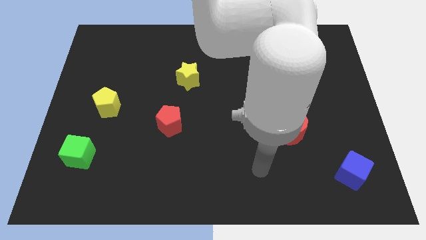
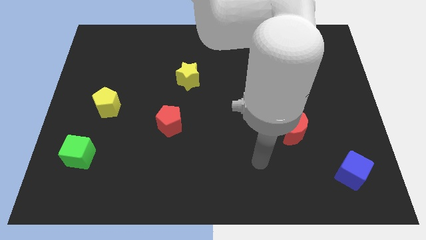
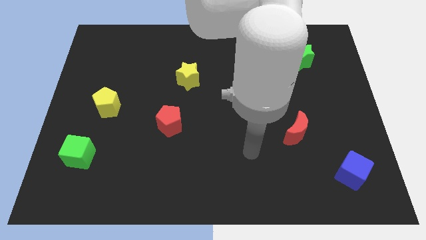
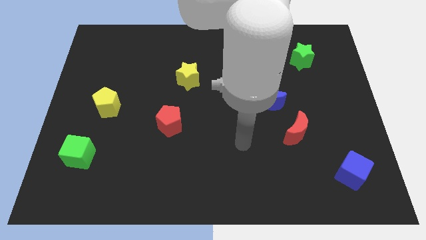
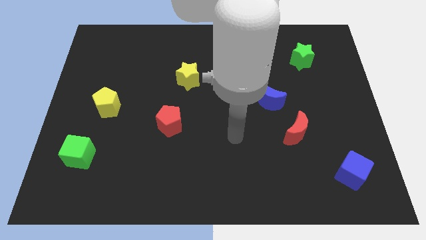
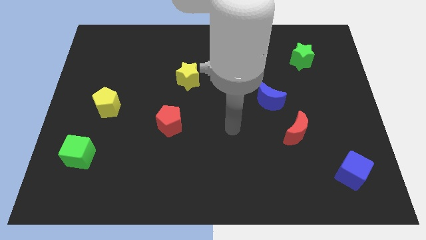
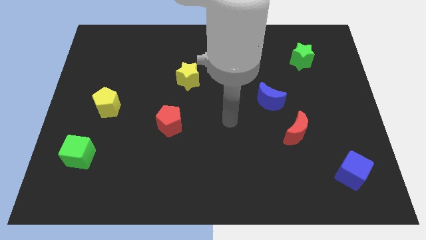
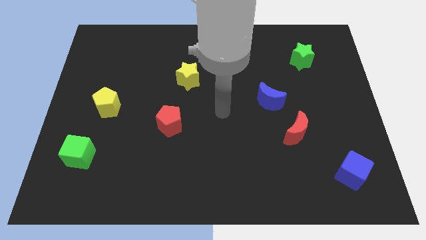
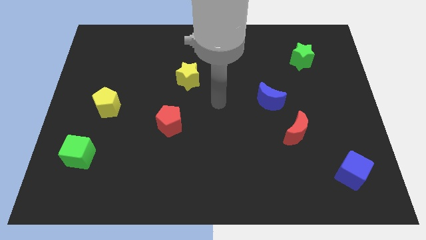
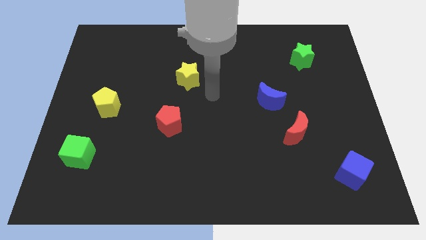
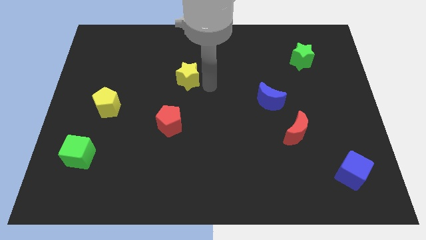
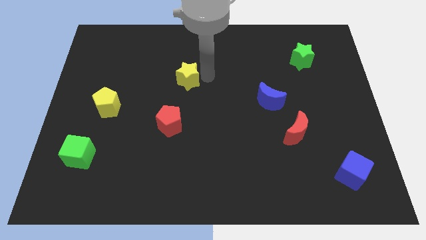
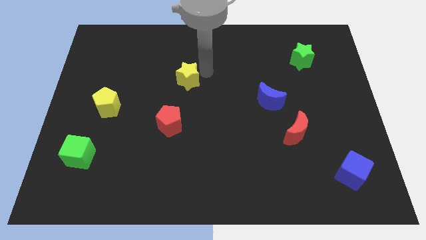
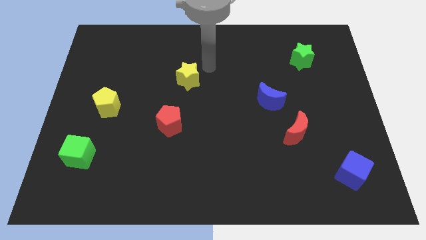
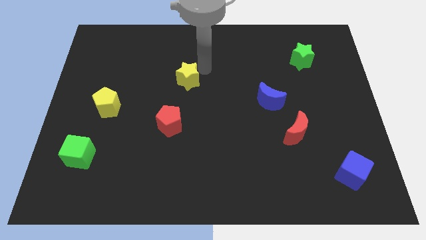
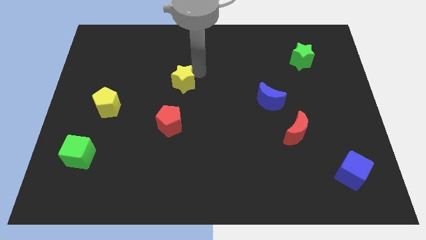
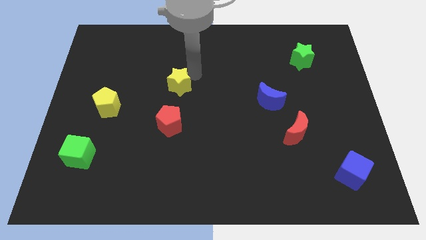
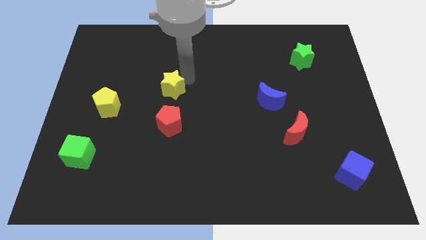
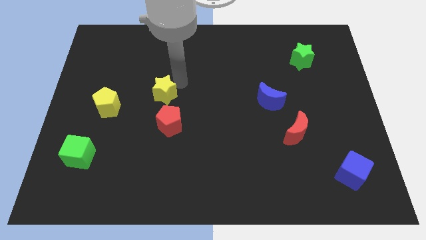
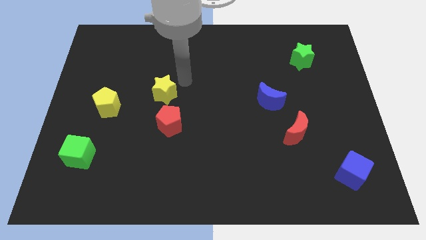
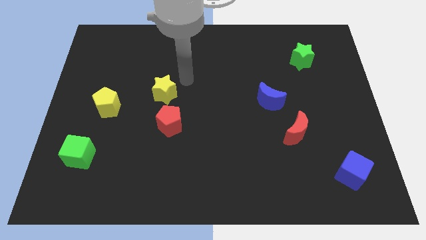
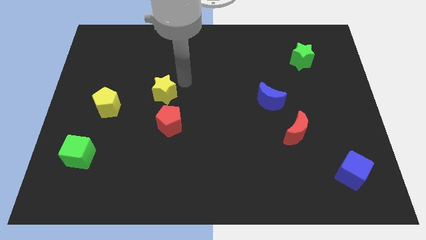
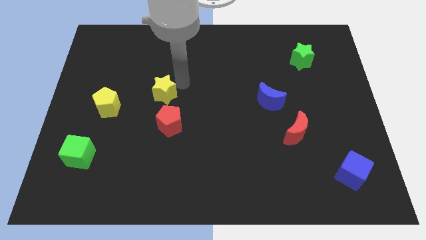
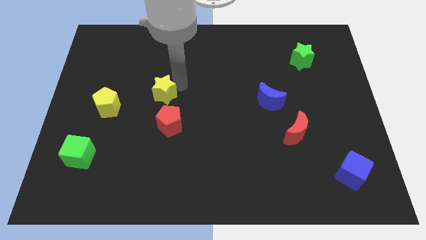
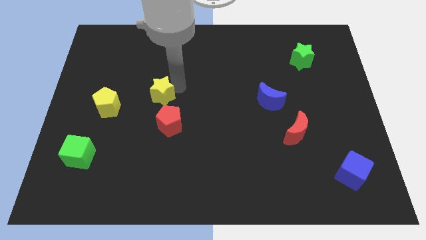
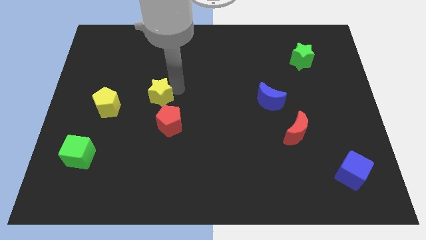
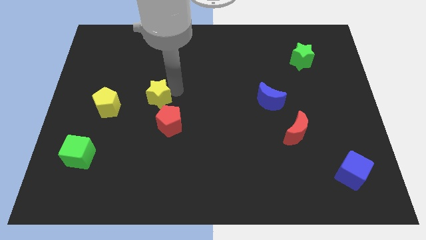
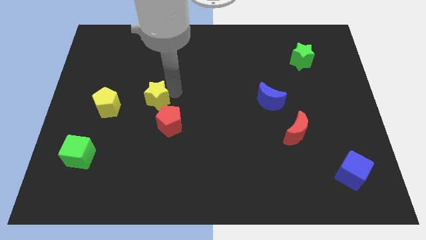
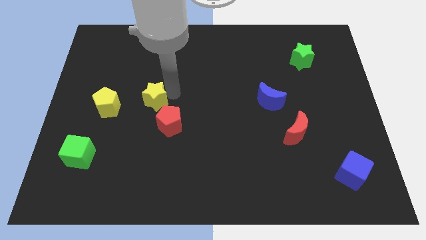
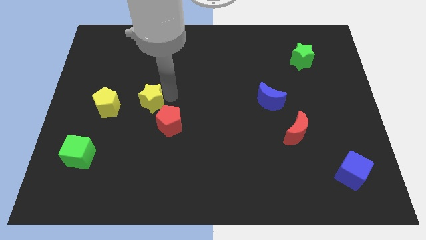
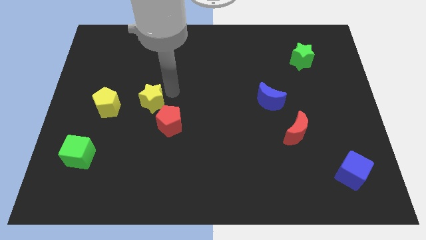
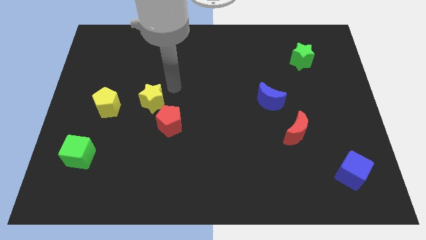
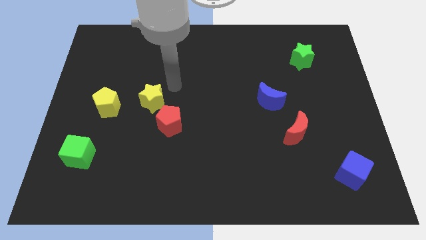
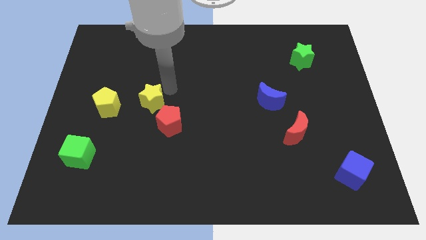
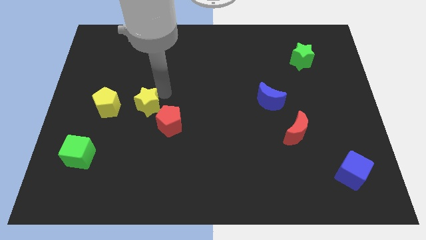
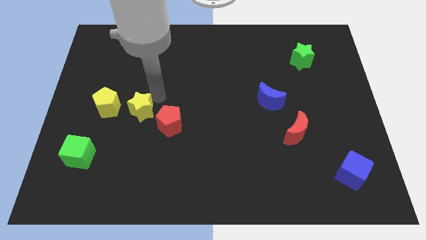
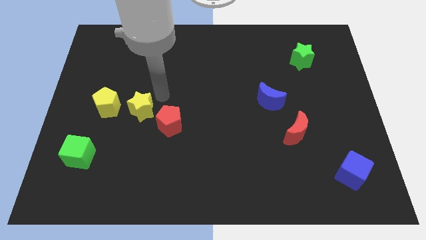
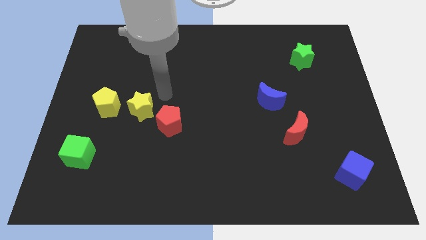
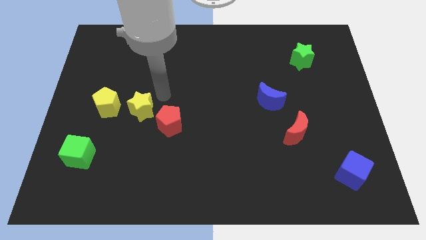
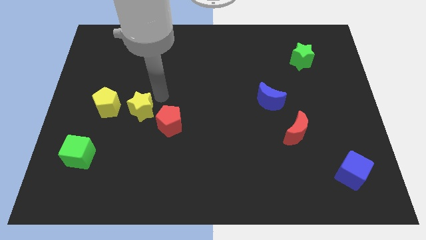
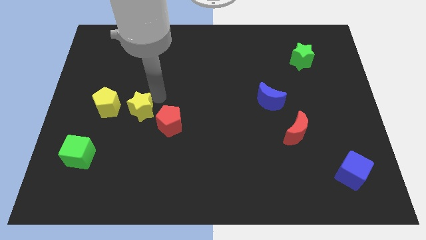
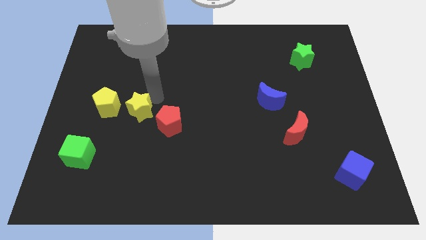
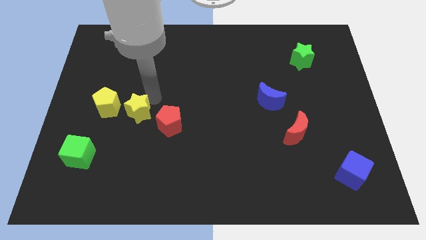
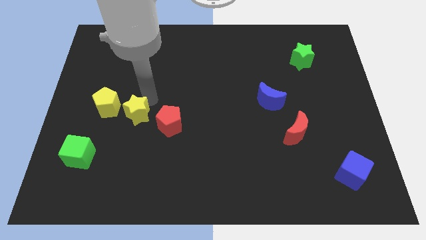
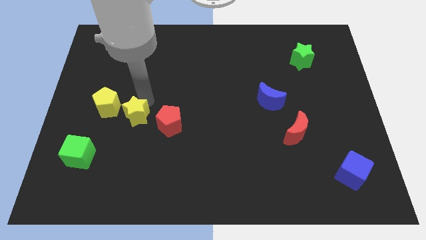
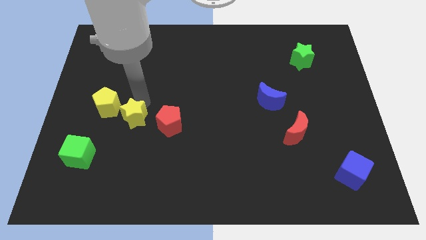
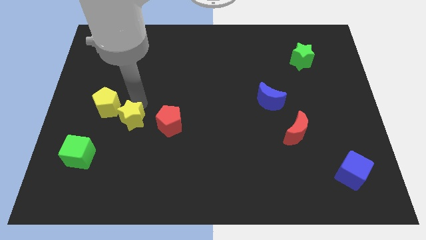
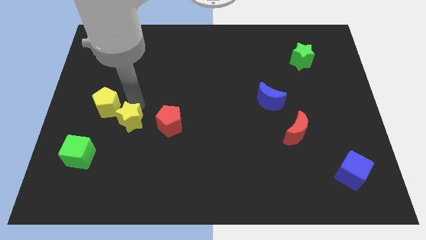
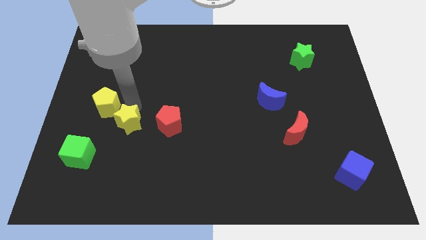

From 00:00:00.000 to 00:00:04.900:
put the yellow star diagonally up and to the right of the green cube

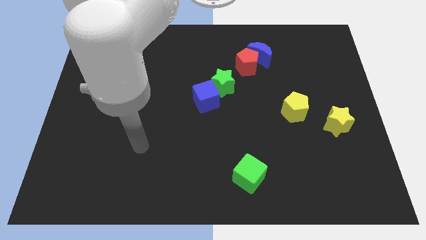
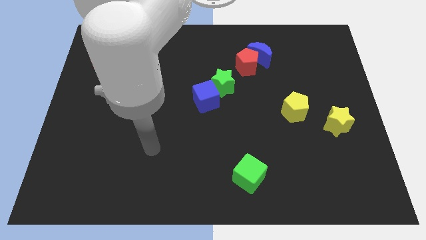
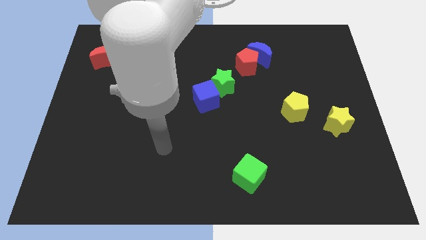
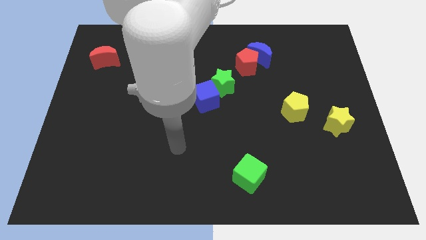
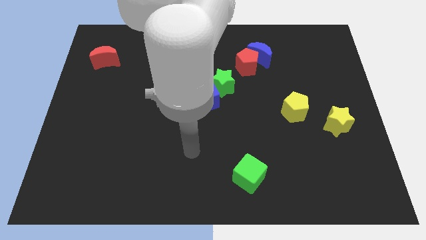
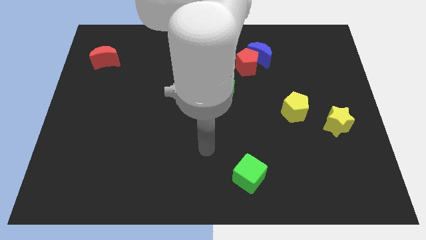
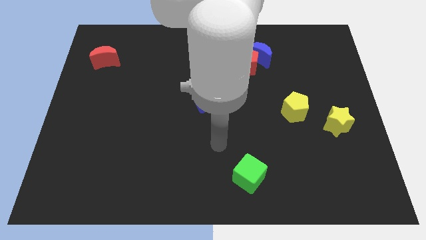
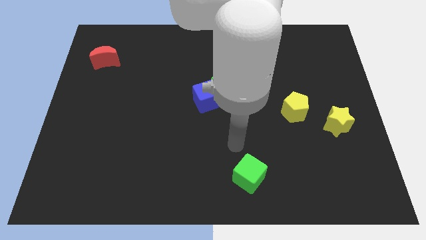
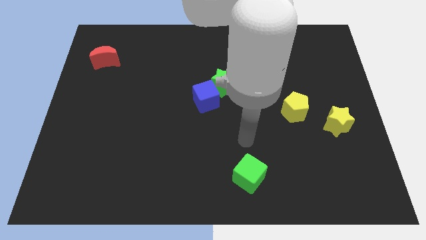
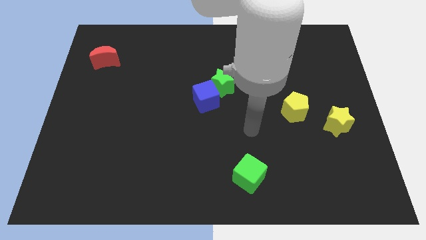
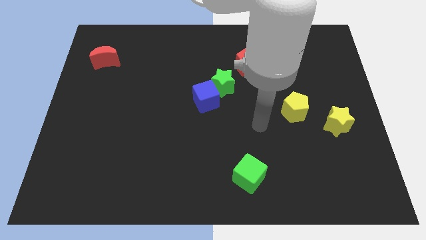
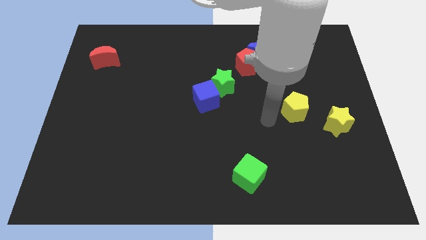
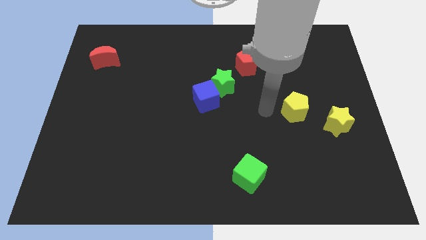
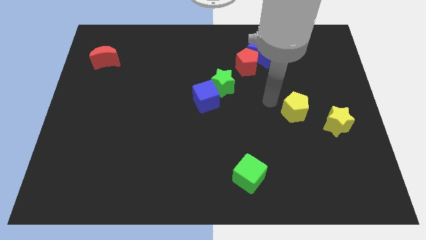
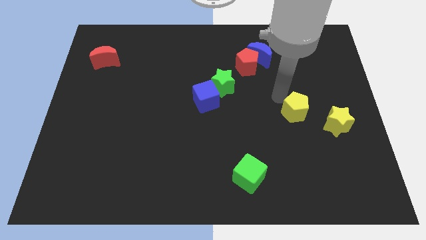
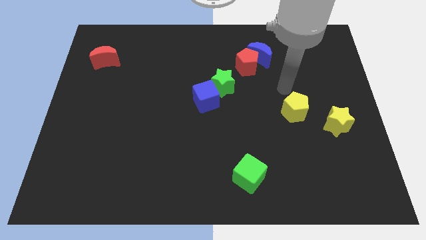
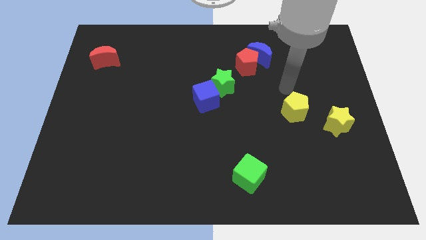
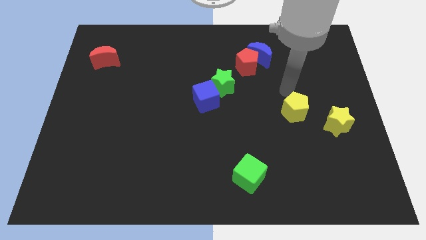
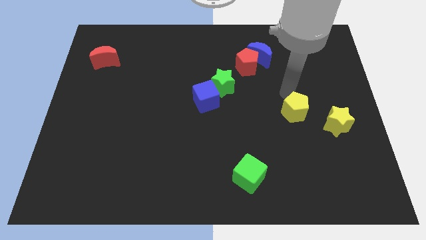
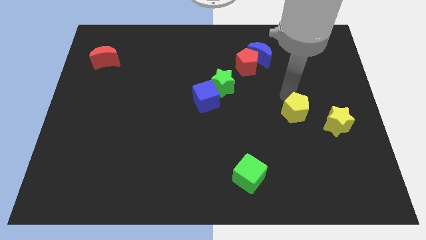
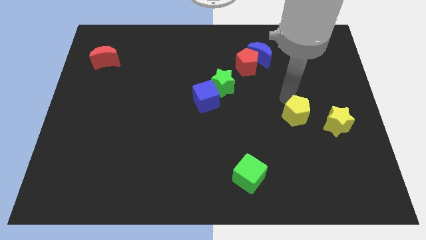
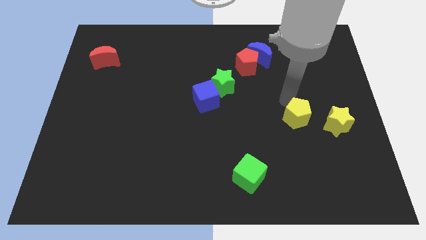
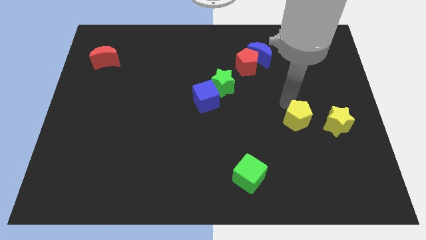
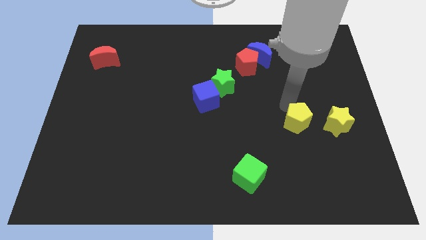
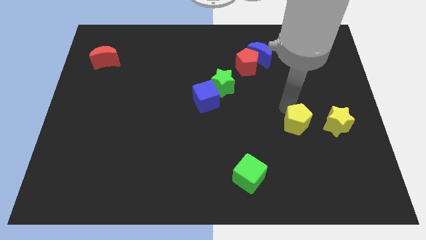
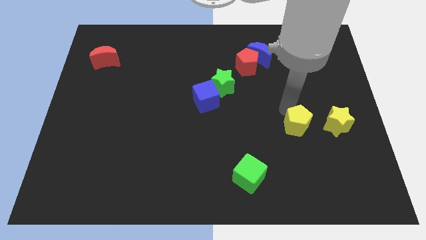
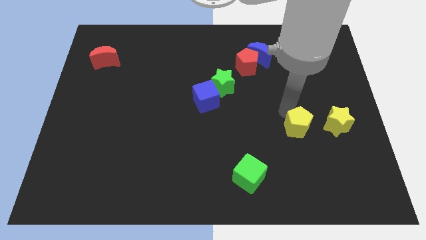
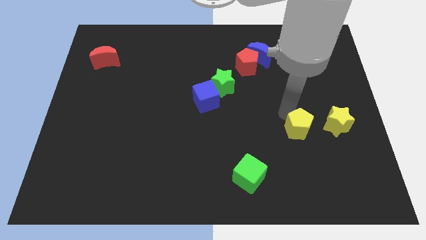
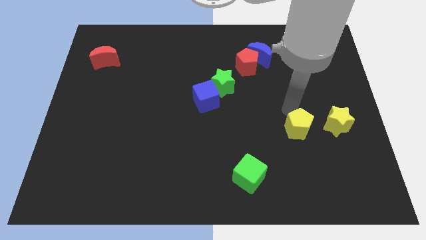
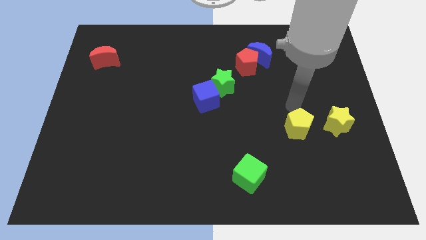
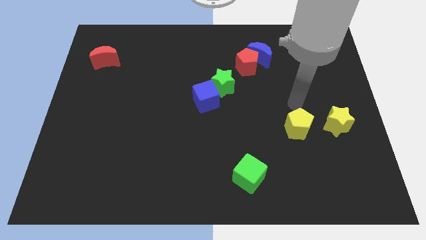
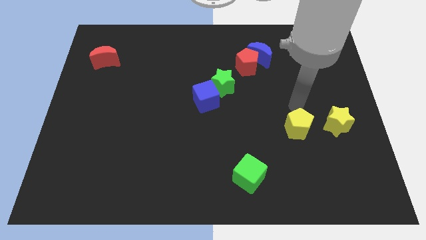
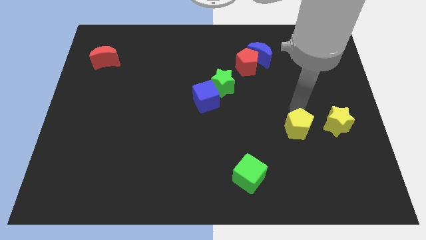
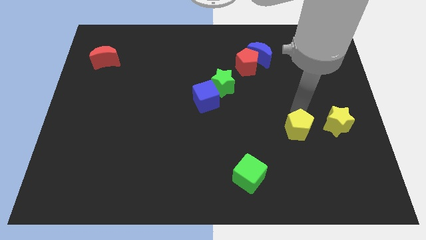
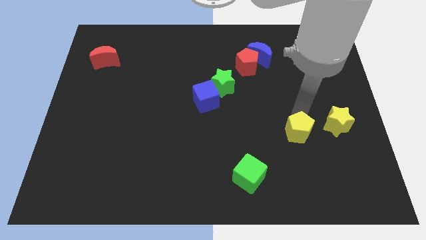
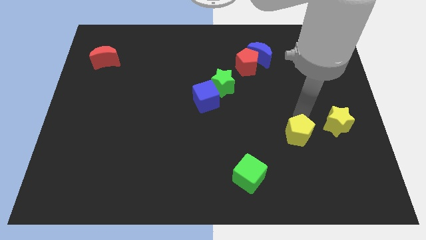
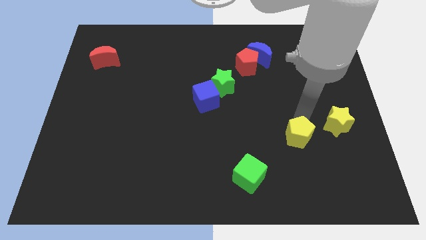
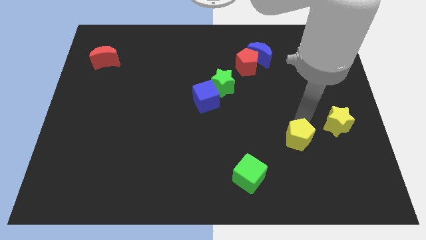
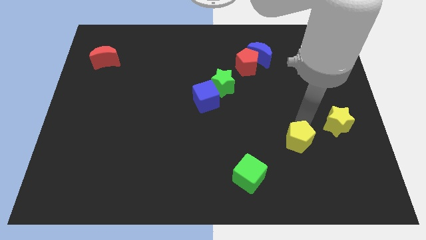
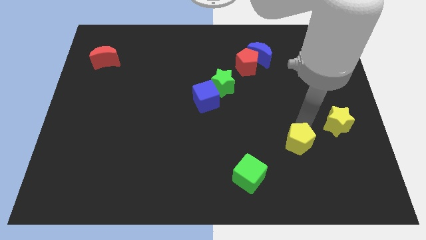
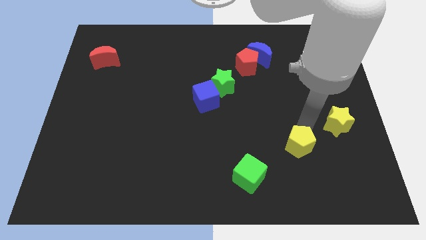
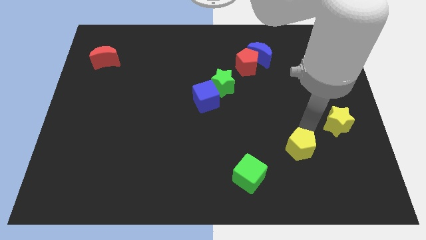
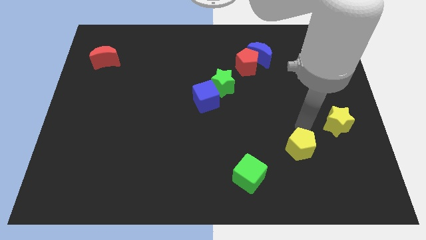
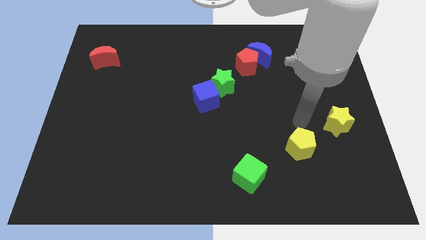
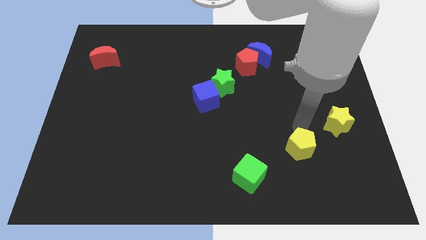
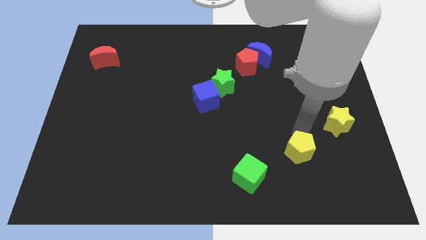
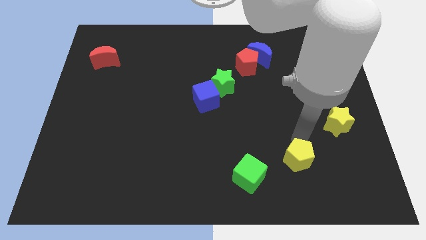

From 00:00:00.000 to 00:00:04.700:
push the yellow pentagon just right of the green cube
